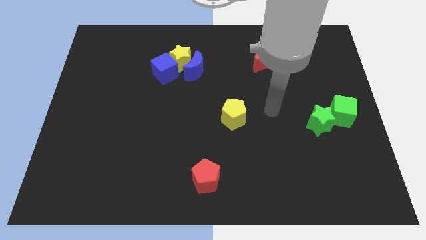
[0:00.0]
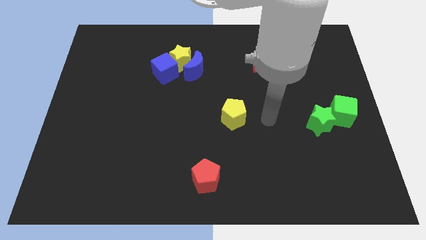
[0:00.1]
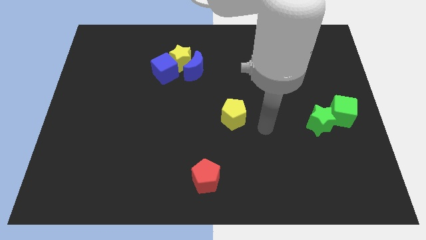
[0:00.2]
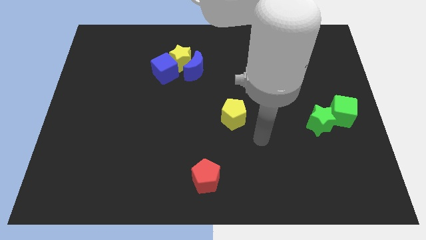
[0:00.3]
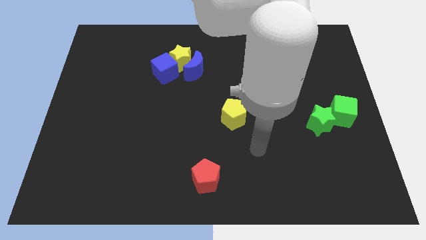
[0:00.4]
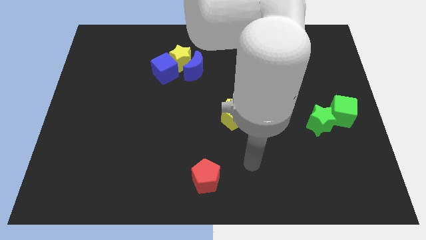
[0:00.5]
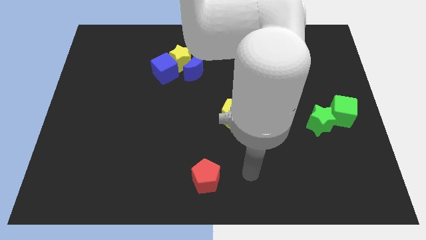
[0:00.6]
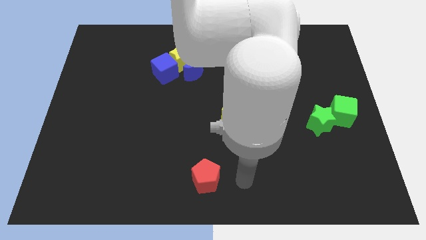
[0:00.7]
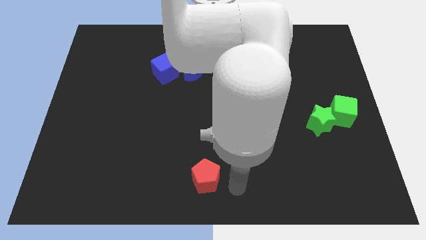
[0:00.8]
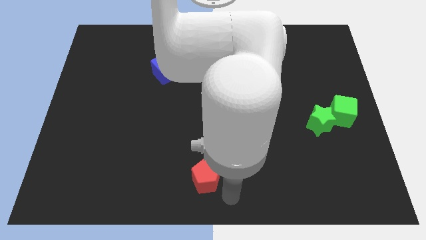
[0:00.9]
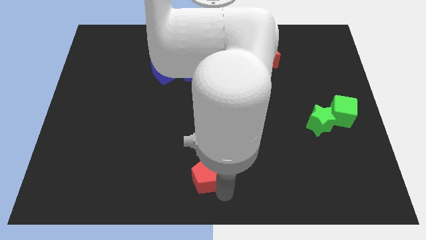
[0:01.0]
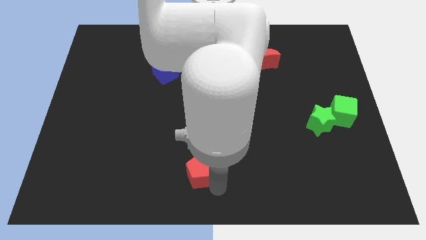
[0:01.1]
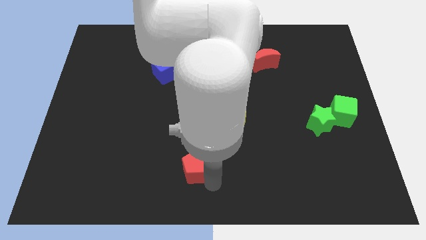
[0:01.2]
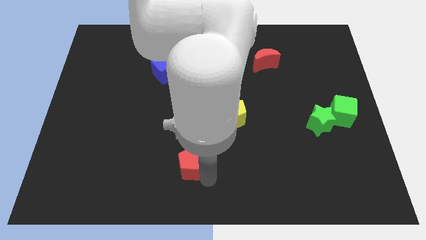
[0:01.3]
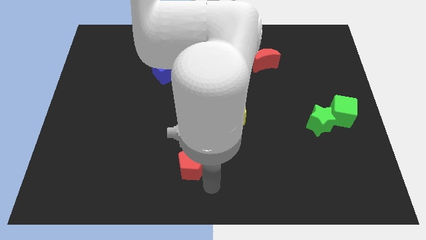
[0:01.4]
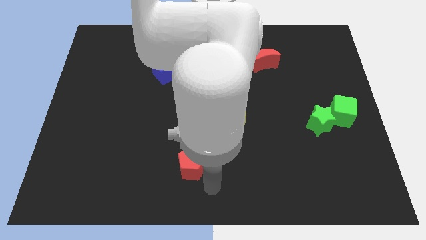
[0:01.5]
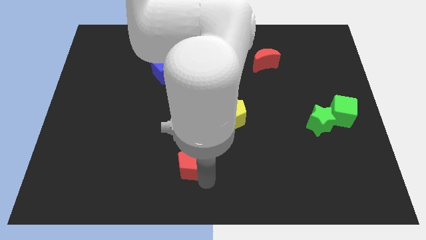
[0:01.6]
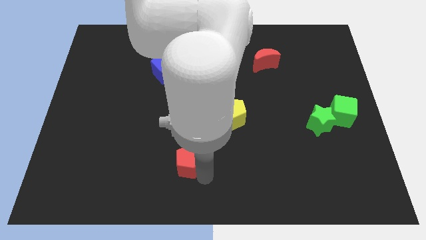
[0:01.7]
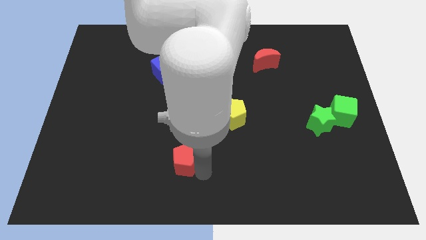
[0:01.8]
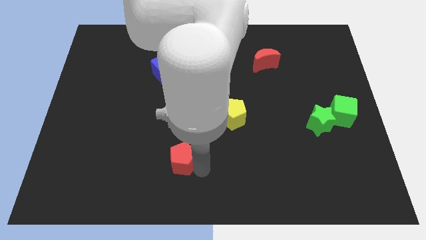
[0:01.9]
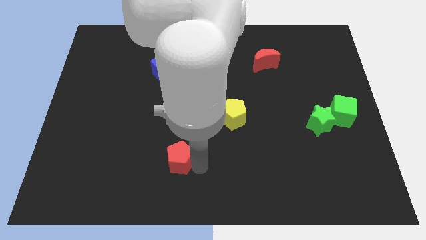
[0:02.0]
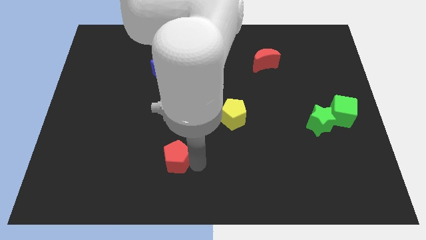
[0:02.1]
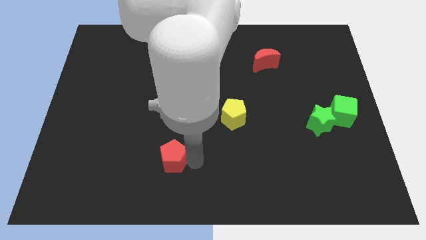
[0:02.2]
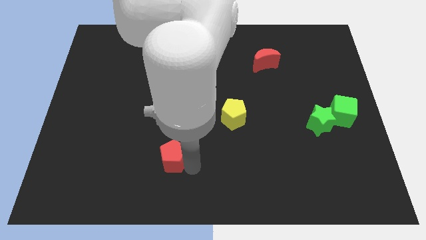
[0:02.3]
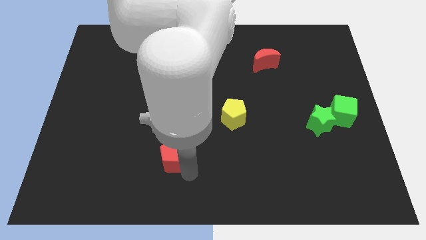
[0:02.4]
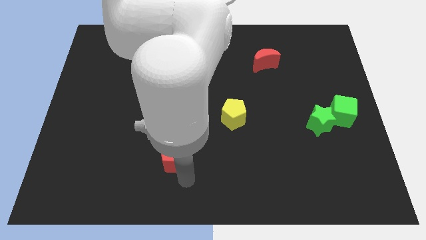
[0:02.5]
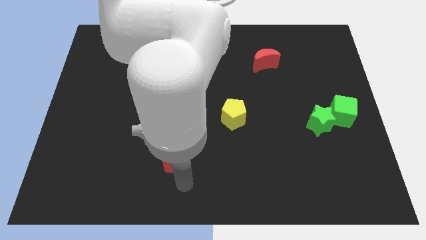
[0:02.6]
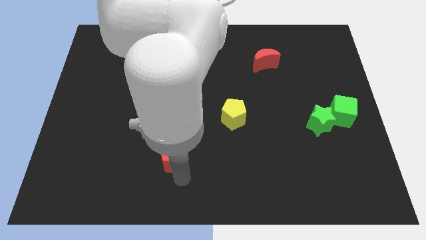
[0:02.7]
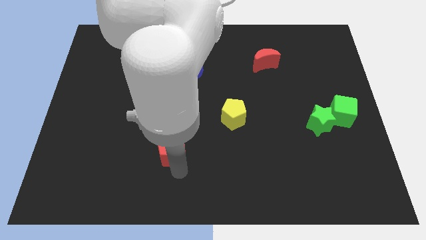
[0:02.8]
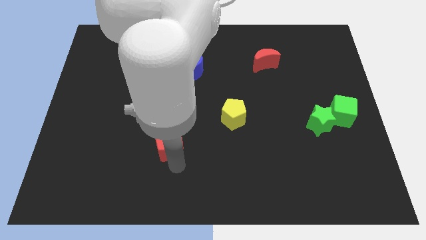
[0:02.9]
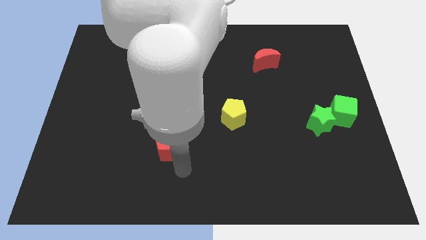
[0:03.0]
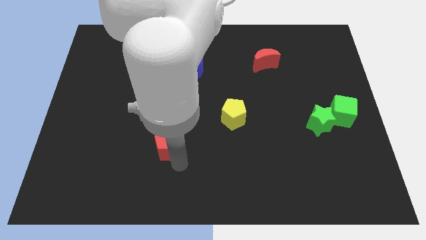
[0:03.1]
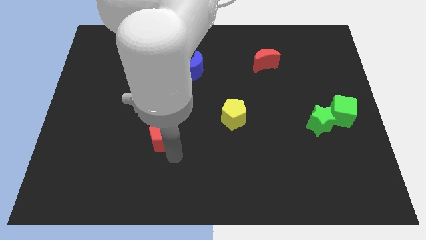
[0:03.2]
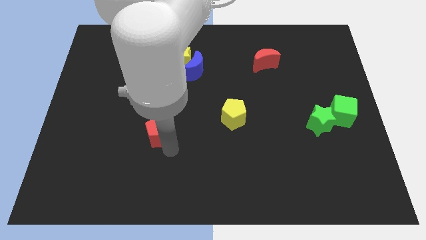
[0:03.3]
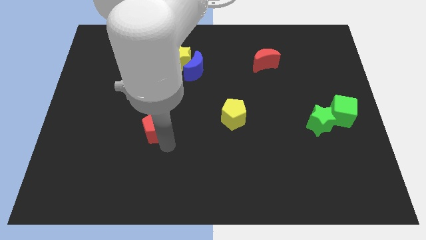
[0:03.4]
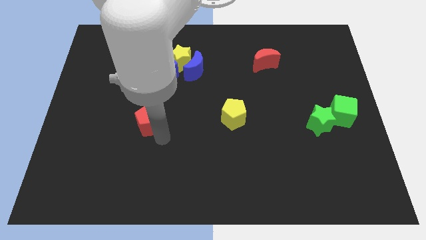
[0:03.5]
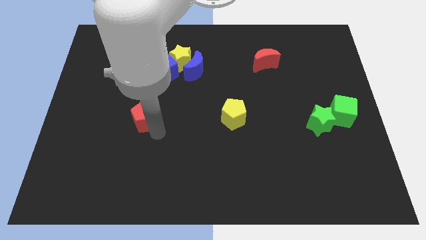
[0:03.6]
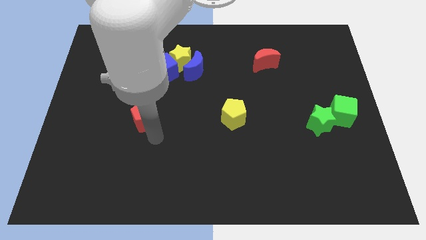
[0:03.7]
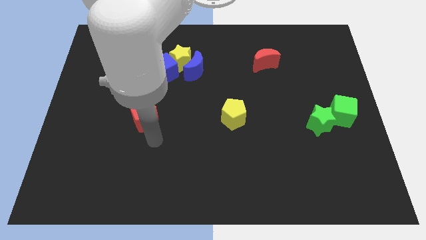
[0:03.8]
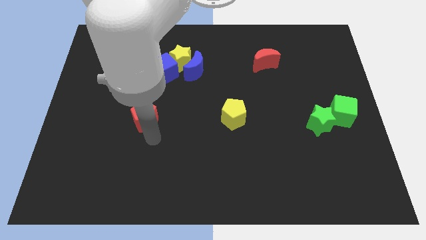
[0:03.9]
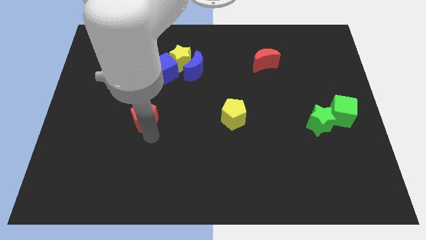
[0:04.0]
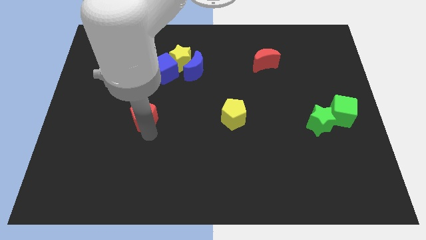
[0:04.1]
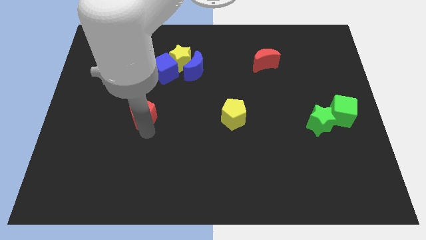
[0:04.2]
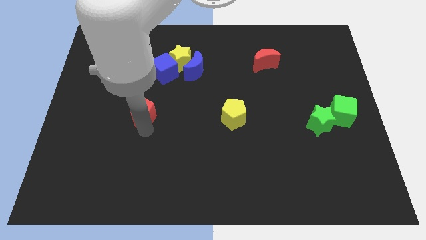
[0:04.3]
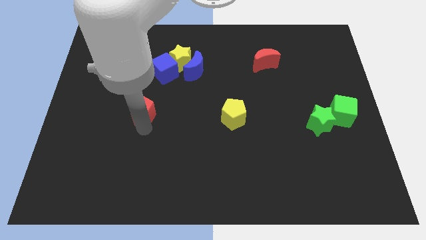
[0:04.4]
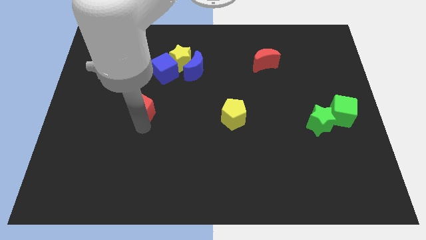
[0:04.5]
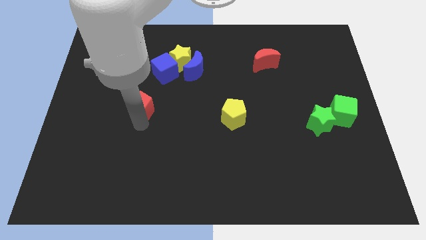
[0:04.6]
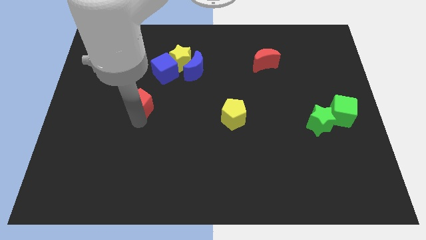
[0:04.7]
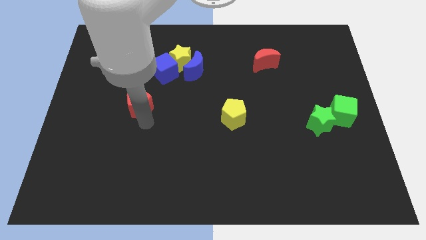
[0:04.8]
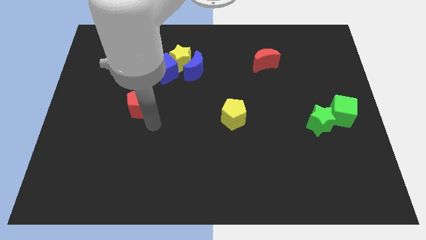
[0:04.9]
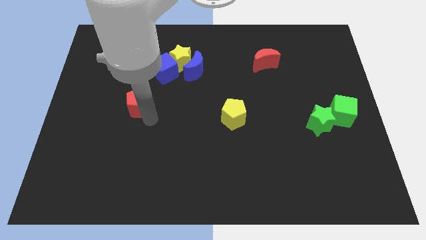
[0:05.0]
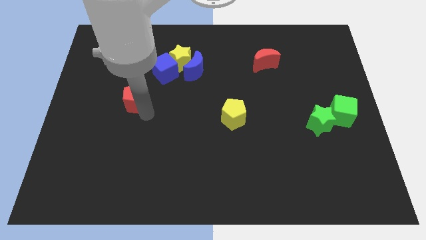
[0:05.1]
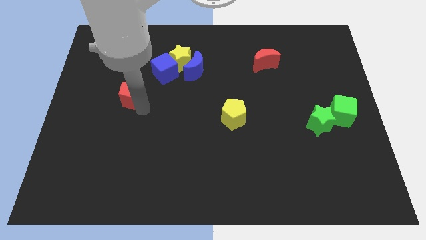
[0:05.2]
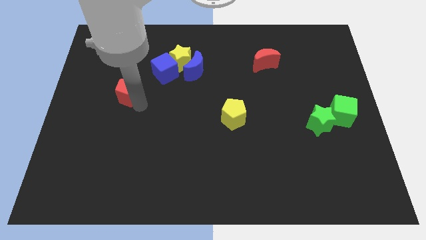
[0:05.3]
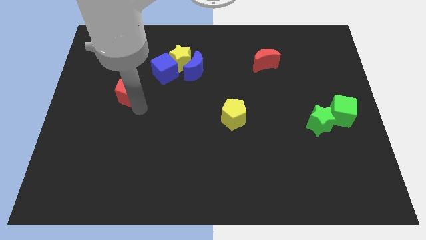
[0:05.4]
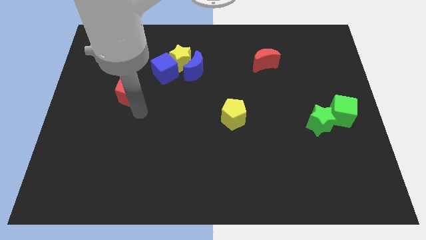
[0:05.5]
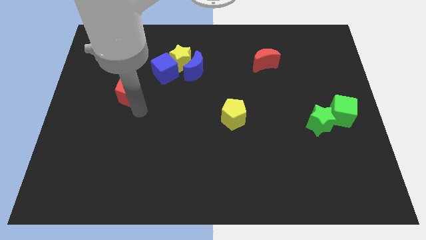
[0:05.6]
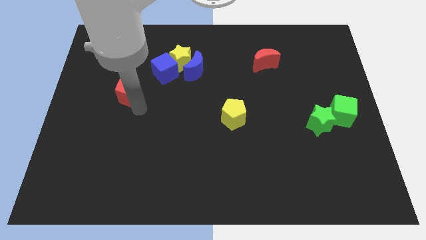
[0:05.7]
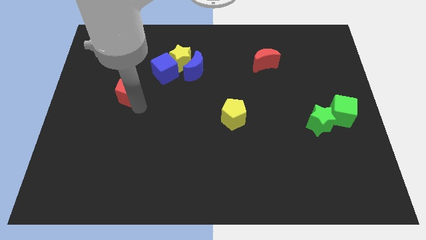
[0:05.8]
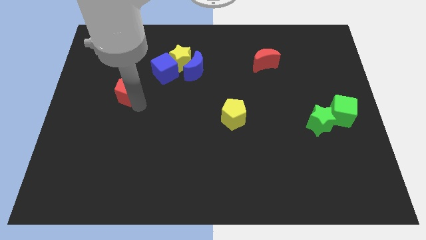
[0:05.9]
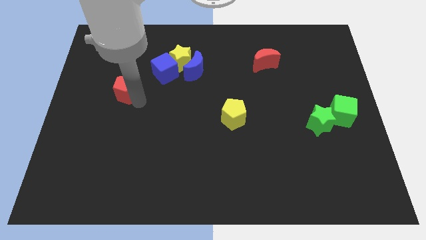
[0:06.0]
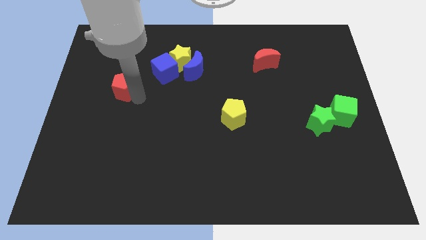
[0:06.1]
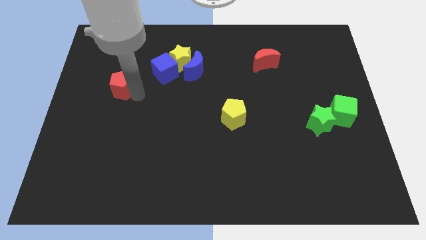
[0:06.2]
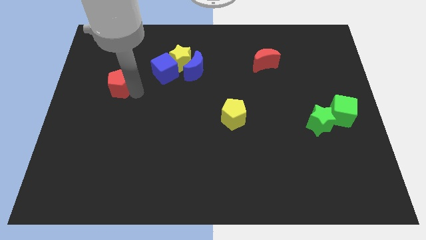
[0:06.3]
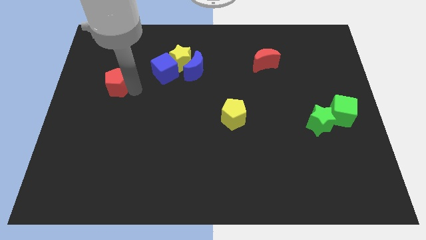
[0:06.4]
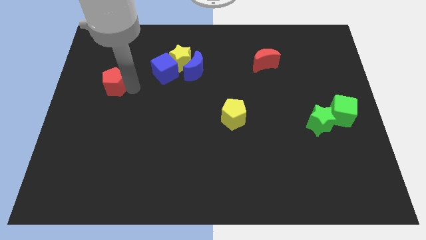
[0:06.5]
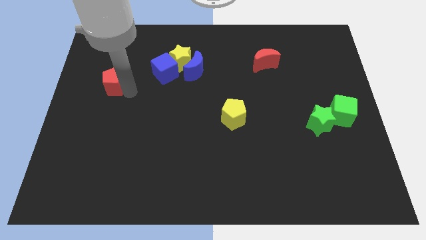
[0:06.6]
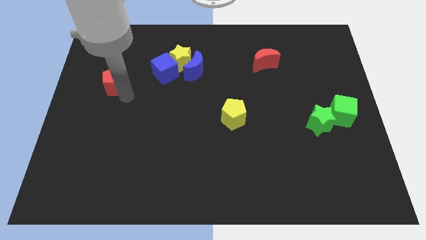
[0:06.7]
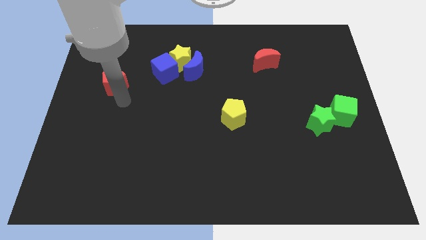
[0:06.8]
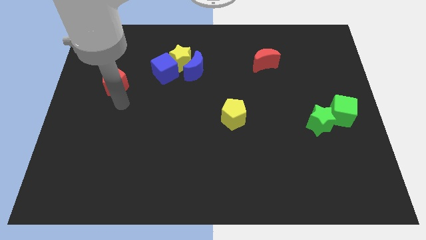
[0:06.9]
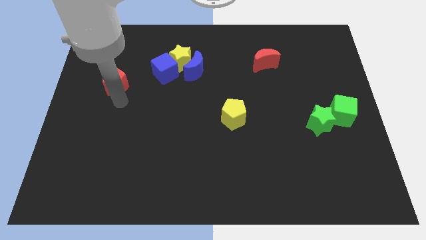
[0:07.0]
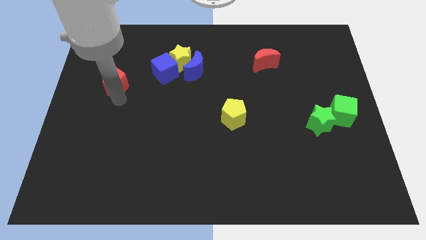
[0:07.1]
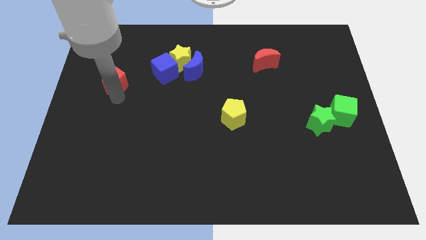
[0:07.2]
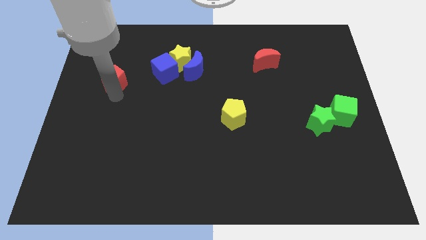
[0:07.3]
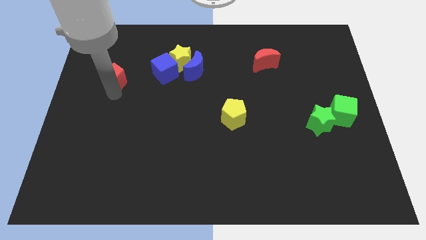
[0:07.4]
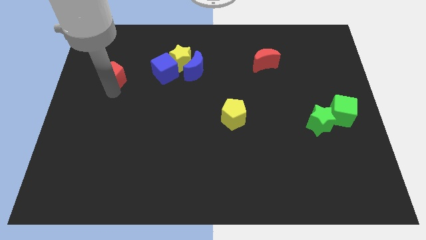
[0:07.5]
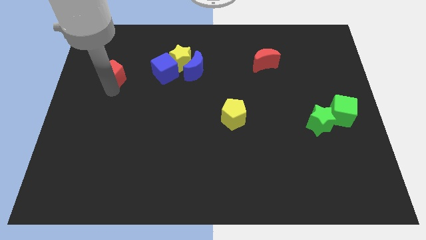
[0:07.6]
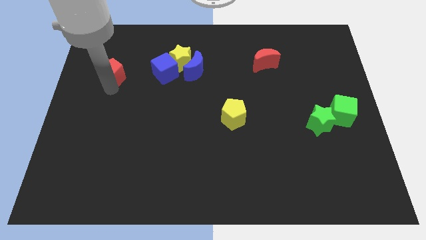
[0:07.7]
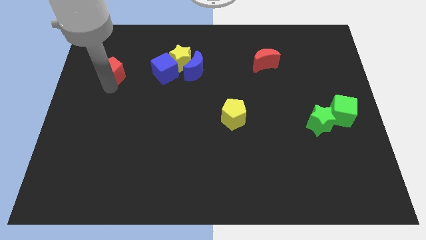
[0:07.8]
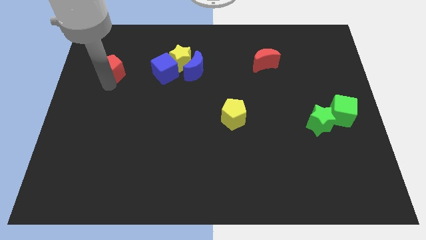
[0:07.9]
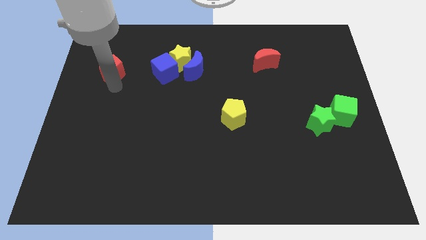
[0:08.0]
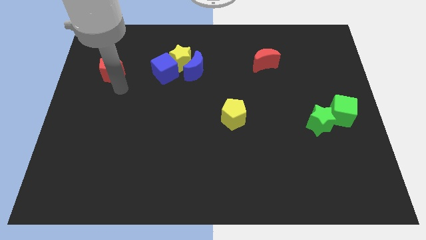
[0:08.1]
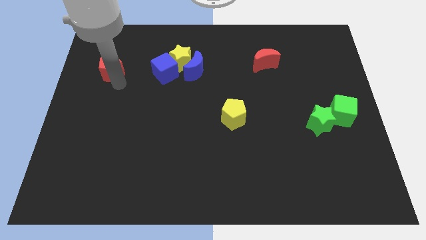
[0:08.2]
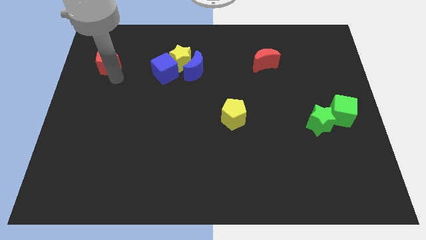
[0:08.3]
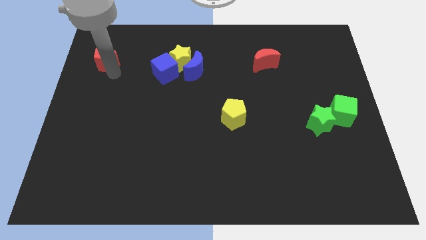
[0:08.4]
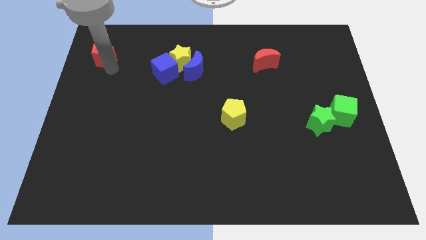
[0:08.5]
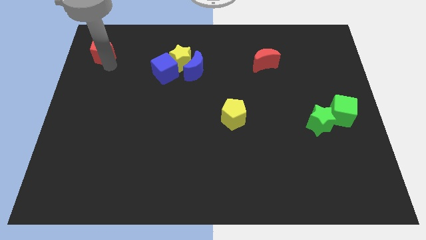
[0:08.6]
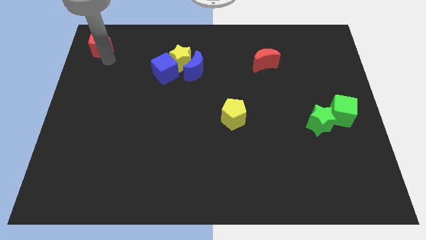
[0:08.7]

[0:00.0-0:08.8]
push the red pentagon to the upper left corner
